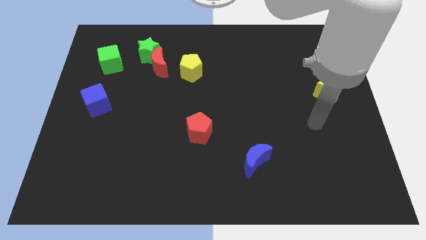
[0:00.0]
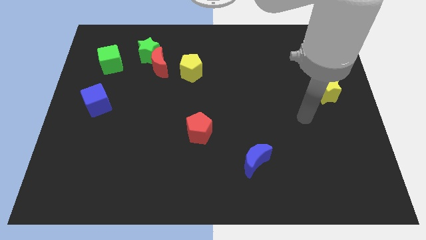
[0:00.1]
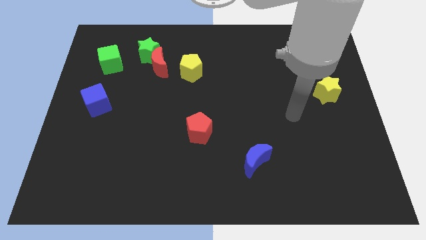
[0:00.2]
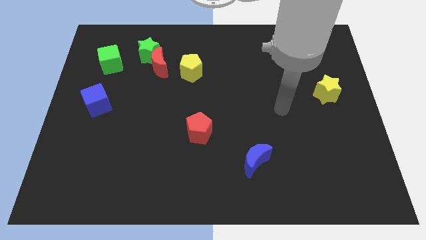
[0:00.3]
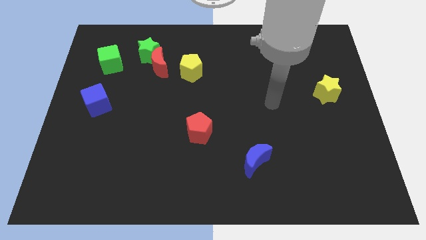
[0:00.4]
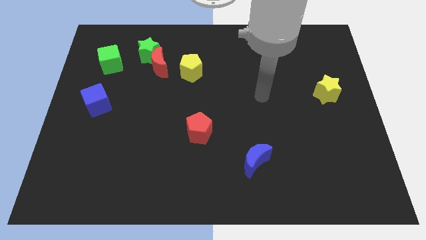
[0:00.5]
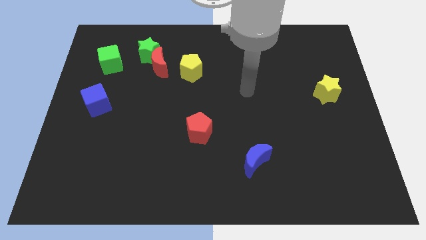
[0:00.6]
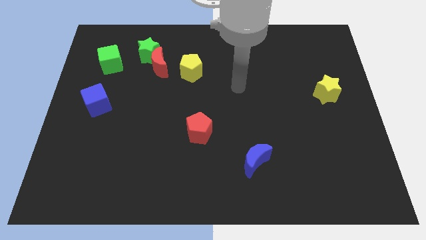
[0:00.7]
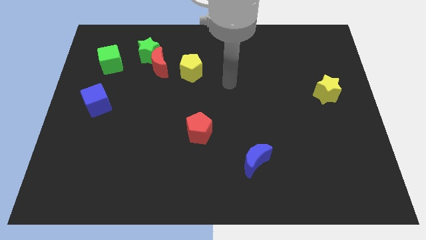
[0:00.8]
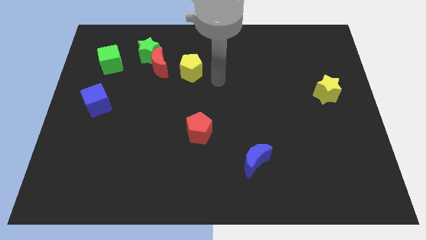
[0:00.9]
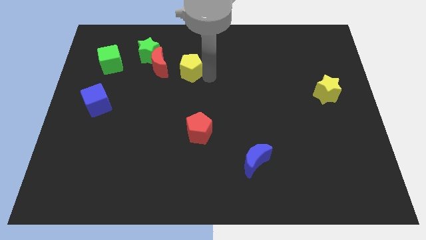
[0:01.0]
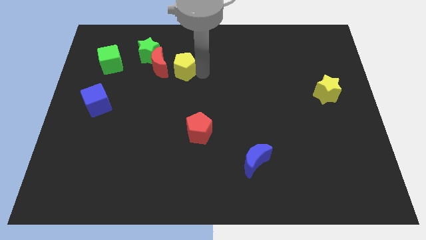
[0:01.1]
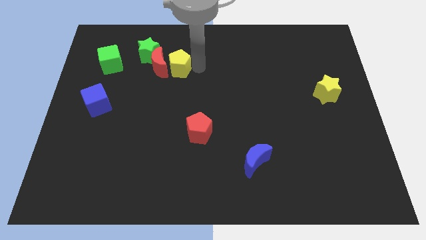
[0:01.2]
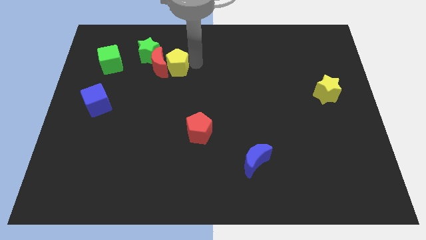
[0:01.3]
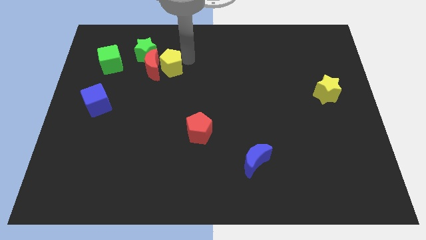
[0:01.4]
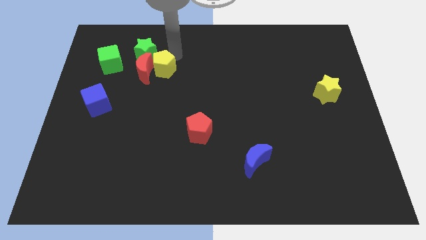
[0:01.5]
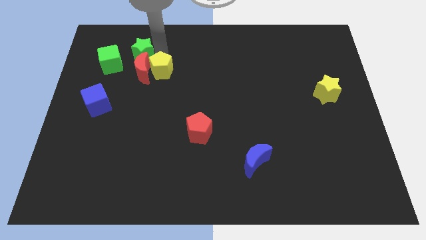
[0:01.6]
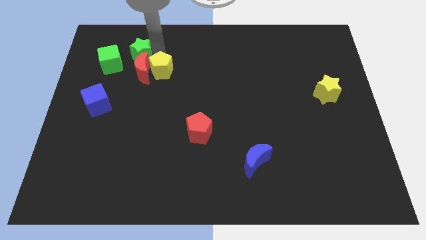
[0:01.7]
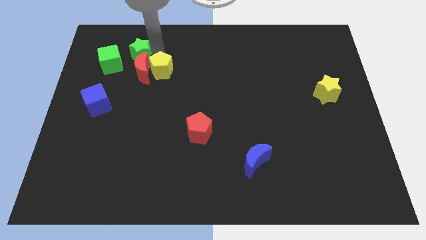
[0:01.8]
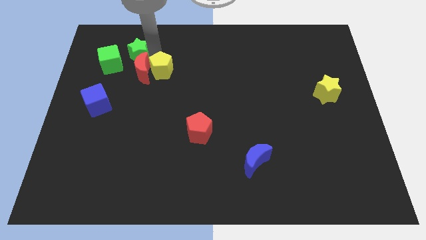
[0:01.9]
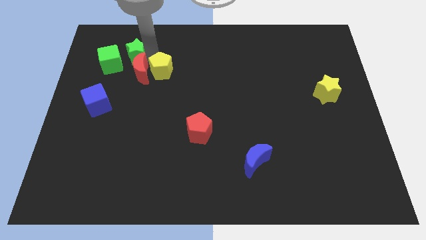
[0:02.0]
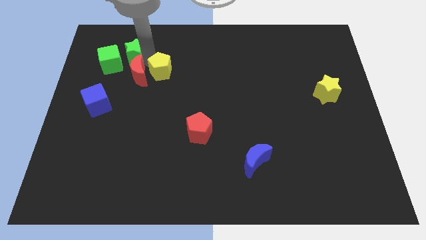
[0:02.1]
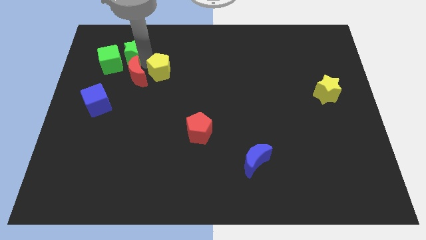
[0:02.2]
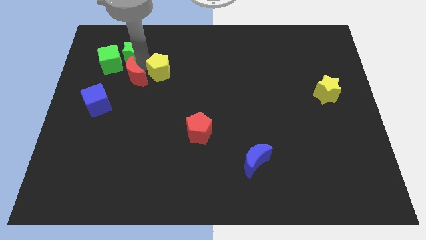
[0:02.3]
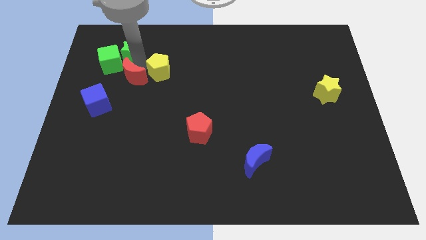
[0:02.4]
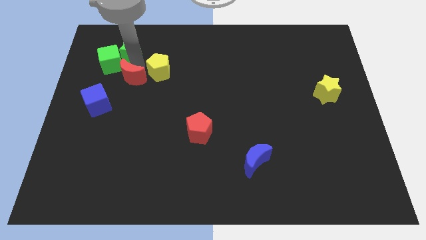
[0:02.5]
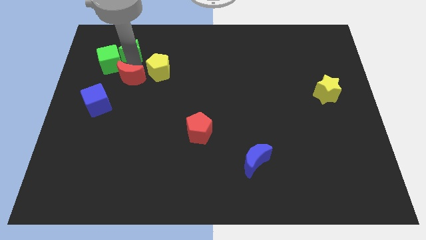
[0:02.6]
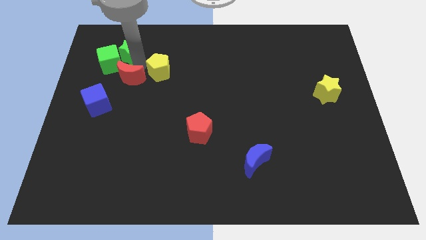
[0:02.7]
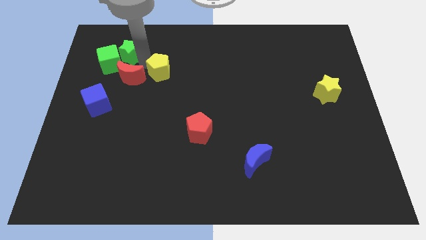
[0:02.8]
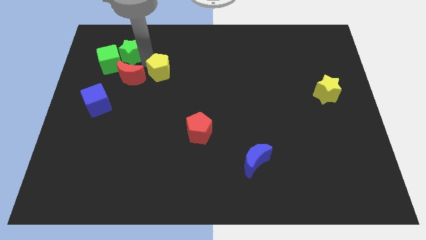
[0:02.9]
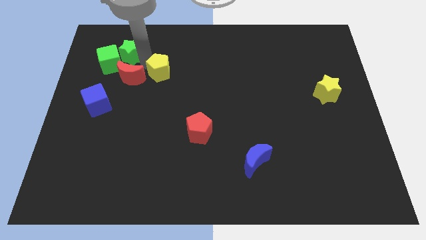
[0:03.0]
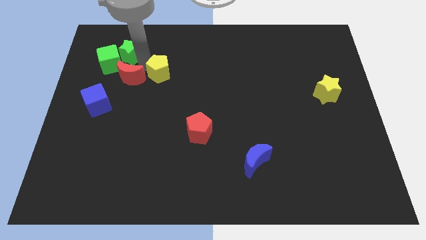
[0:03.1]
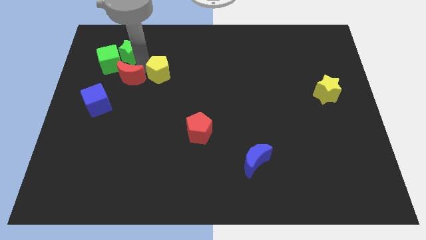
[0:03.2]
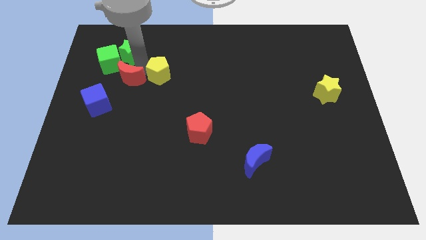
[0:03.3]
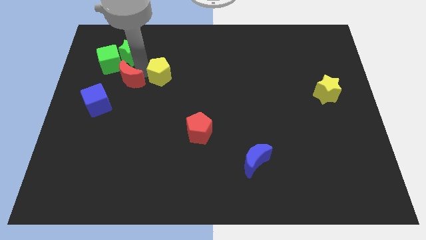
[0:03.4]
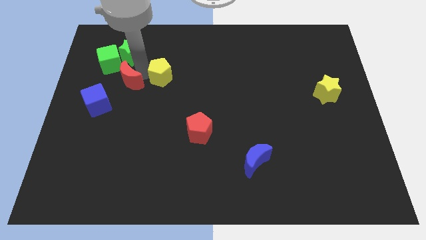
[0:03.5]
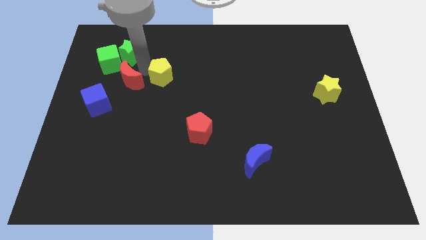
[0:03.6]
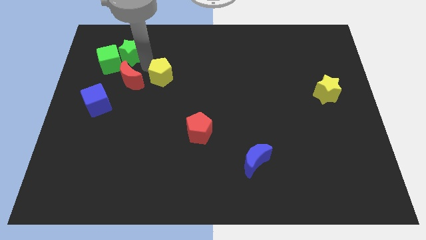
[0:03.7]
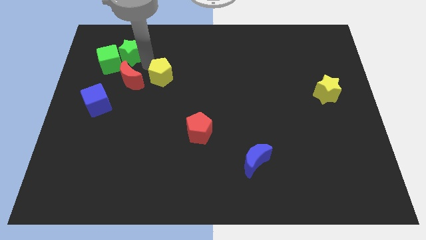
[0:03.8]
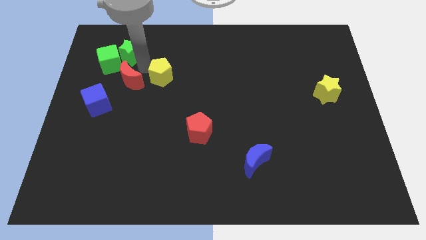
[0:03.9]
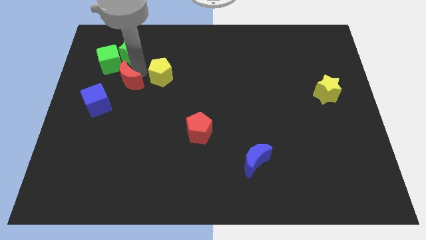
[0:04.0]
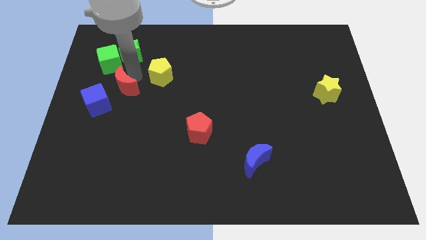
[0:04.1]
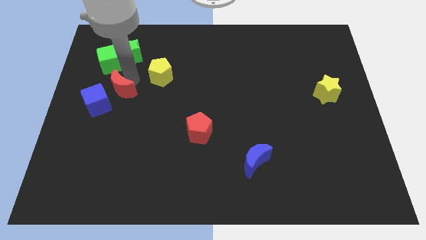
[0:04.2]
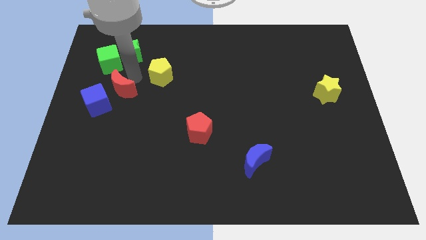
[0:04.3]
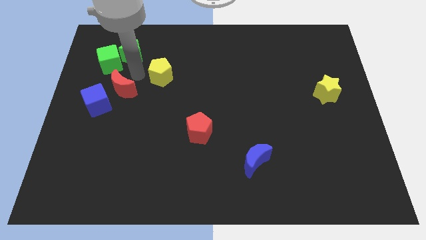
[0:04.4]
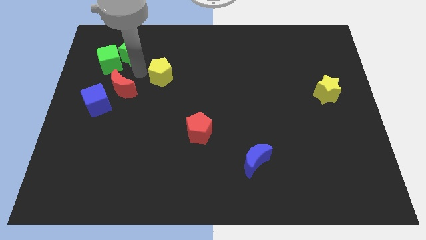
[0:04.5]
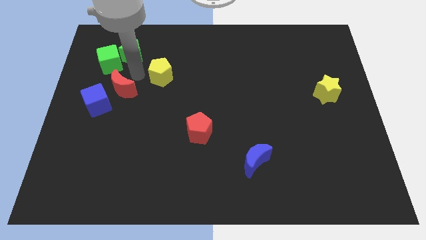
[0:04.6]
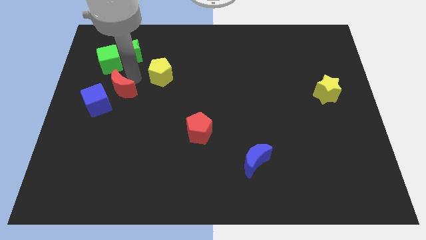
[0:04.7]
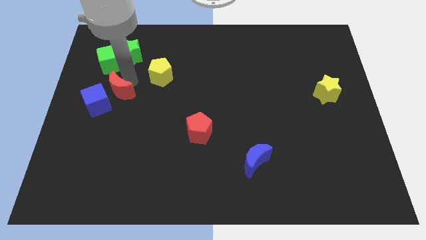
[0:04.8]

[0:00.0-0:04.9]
separate the red moon from the green star and yellow pentagon

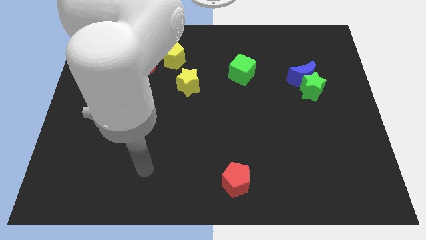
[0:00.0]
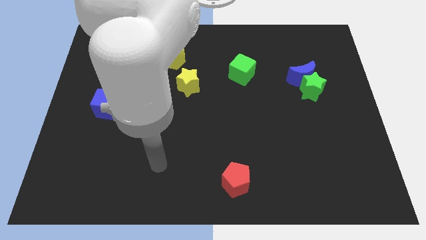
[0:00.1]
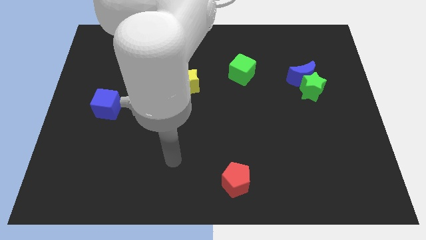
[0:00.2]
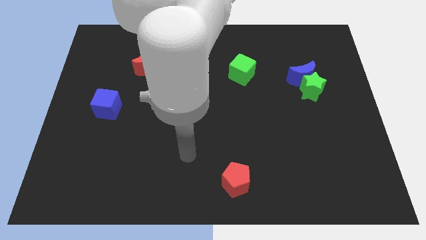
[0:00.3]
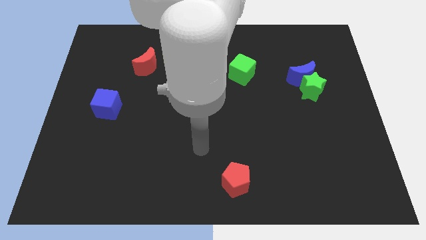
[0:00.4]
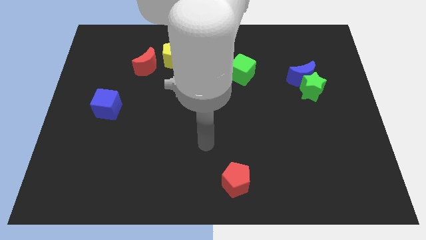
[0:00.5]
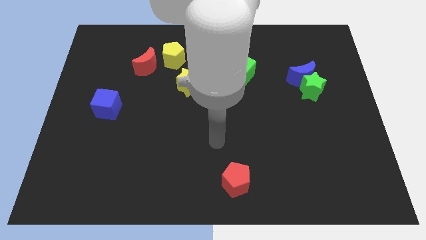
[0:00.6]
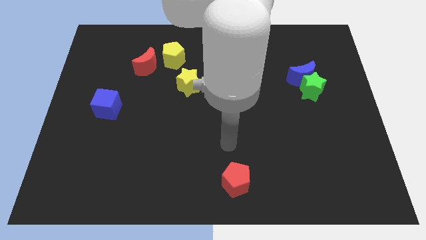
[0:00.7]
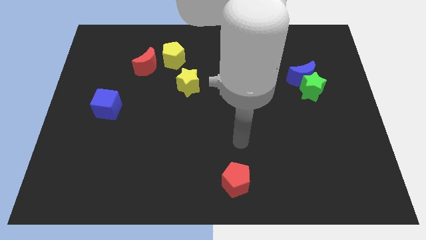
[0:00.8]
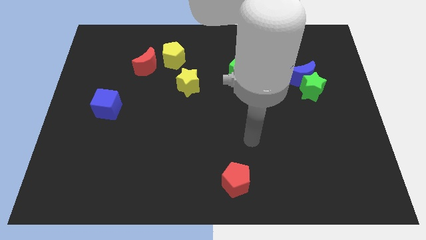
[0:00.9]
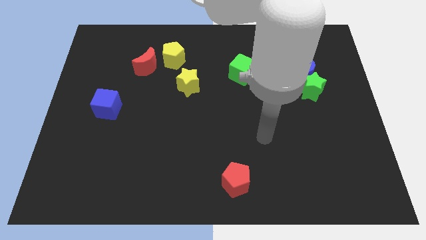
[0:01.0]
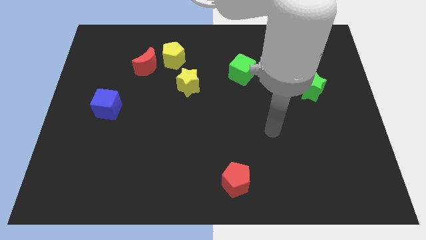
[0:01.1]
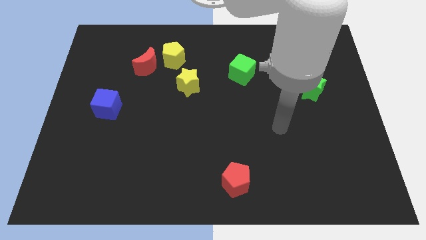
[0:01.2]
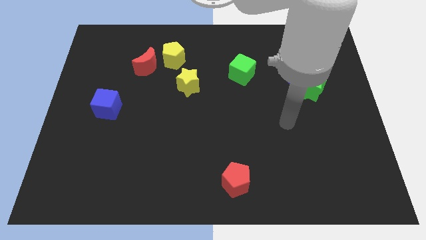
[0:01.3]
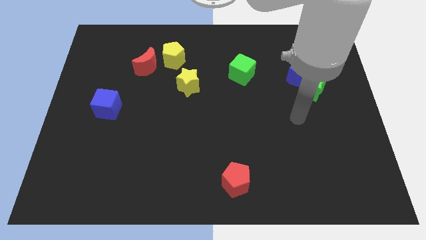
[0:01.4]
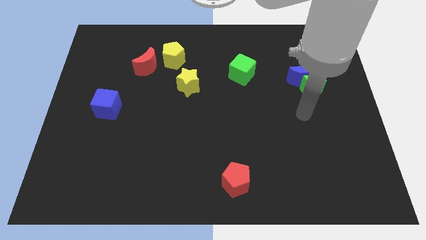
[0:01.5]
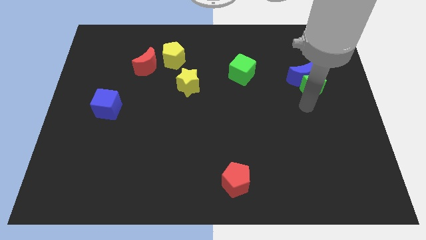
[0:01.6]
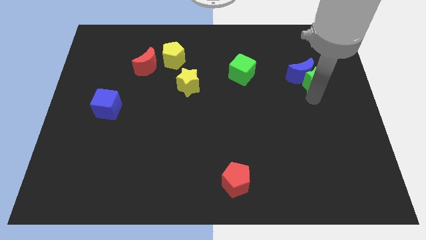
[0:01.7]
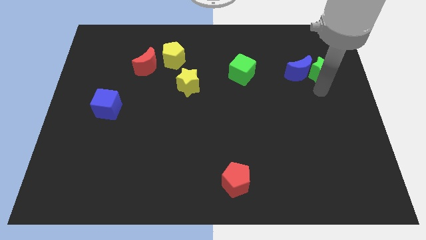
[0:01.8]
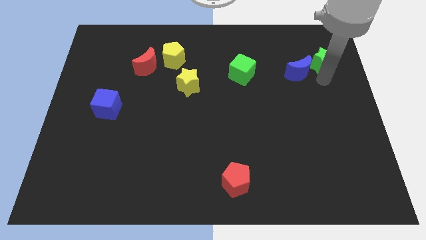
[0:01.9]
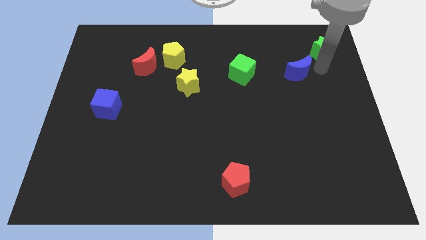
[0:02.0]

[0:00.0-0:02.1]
move the blue moon away from the green star

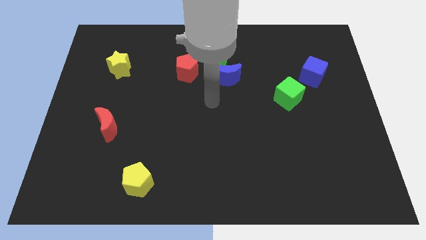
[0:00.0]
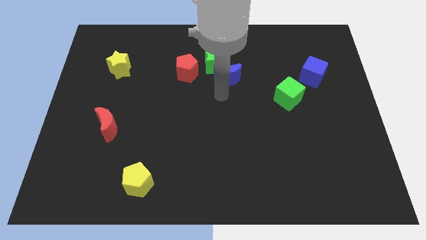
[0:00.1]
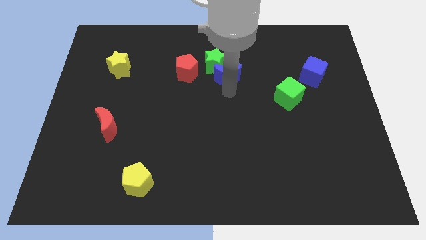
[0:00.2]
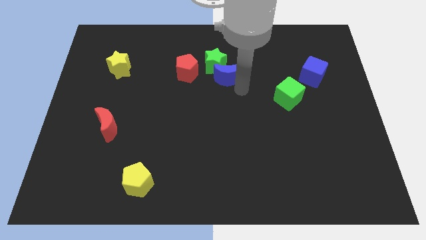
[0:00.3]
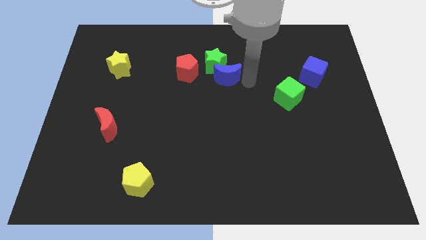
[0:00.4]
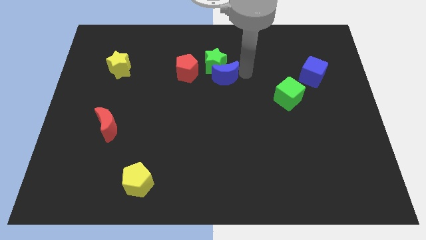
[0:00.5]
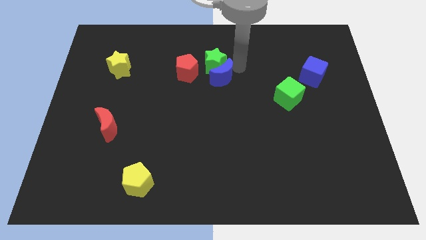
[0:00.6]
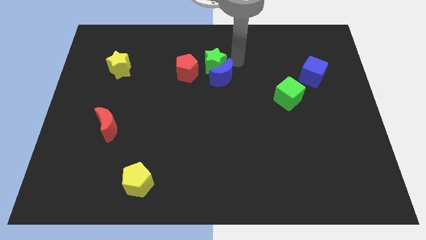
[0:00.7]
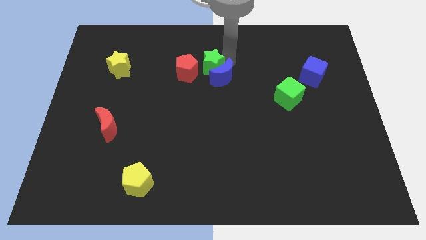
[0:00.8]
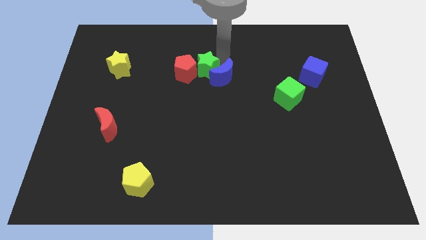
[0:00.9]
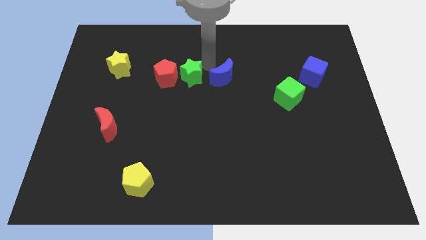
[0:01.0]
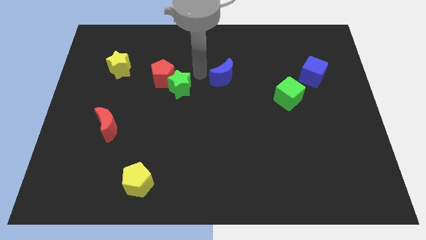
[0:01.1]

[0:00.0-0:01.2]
separate the blue moon from the green star

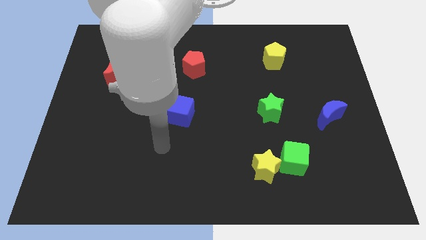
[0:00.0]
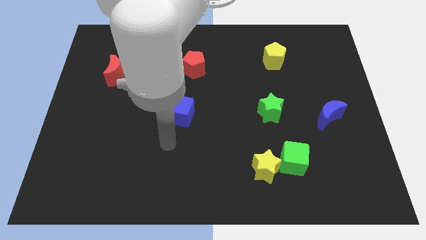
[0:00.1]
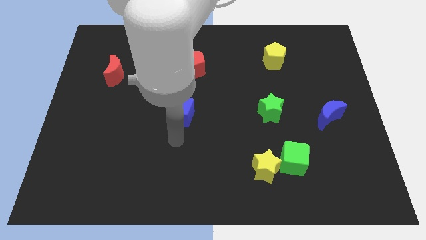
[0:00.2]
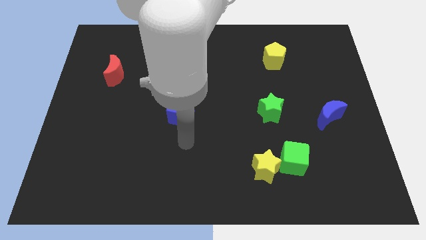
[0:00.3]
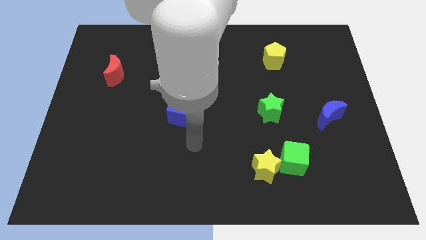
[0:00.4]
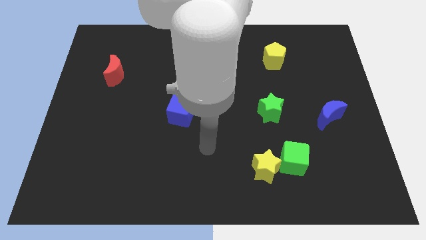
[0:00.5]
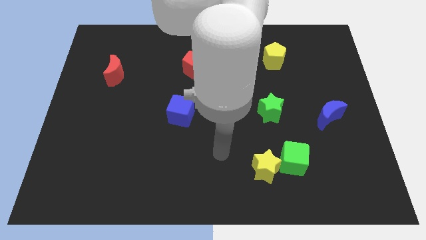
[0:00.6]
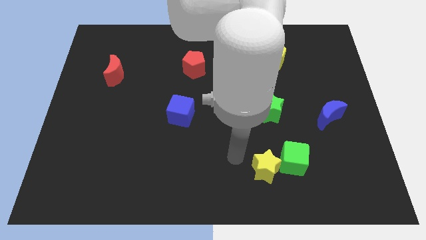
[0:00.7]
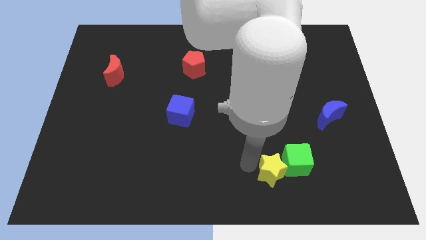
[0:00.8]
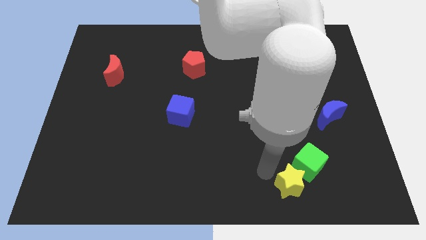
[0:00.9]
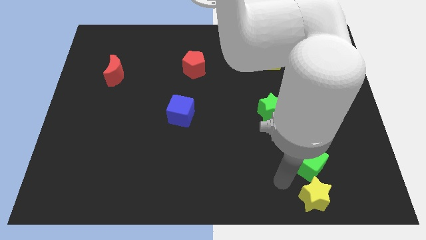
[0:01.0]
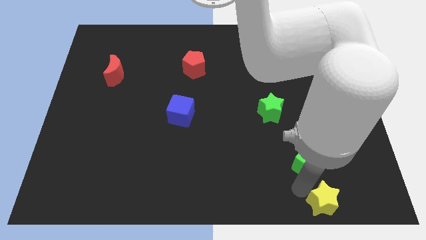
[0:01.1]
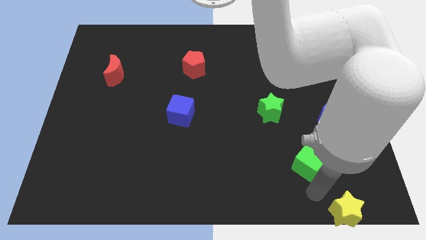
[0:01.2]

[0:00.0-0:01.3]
pull the green cube apart from the yellow star
